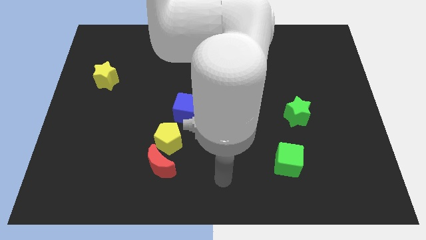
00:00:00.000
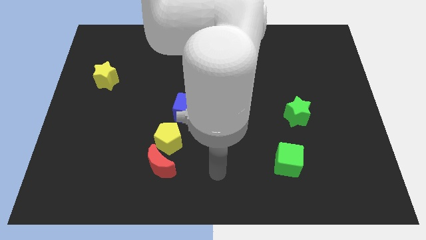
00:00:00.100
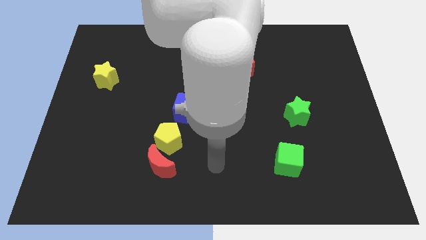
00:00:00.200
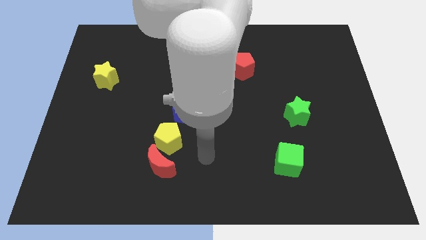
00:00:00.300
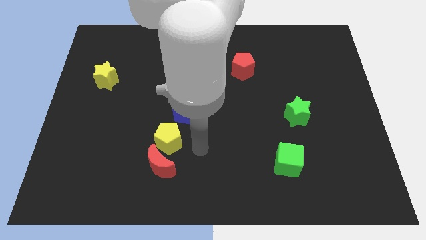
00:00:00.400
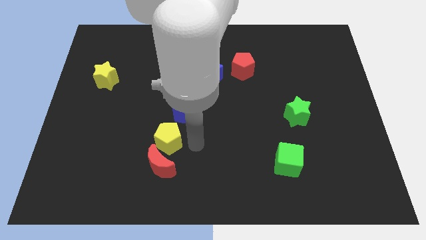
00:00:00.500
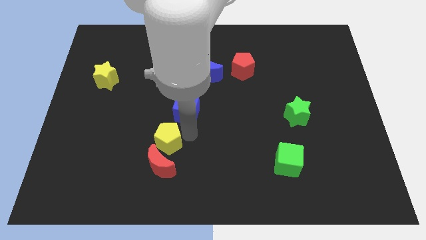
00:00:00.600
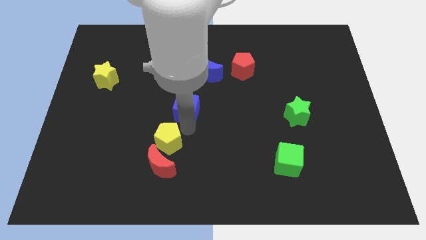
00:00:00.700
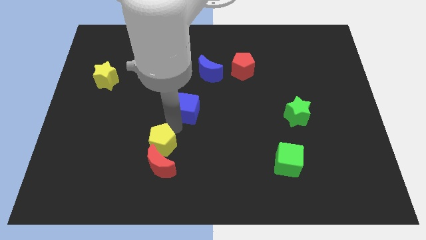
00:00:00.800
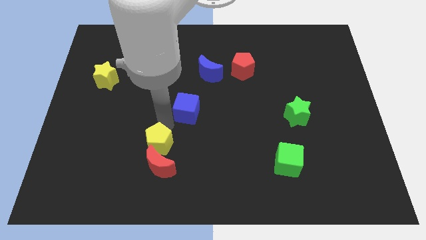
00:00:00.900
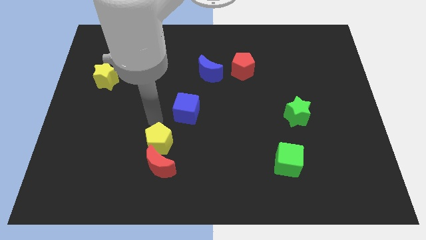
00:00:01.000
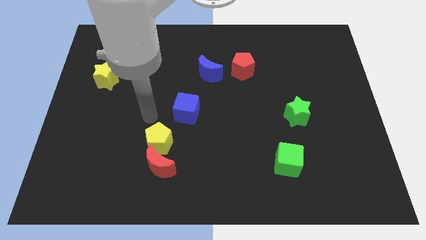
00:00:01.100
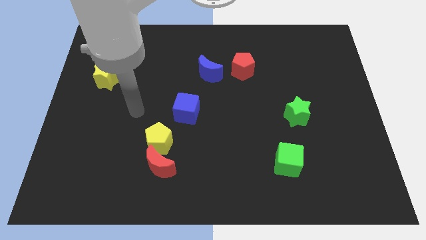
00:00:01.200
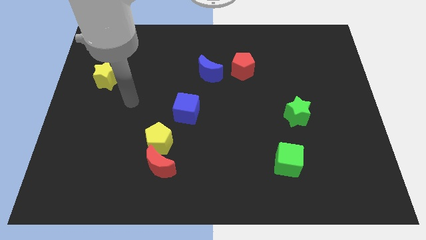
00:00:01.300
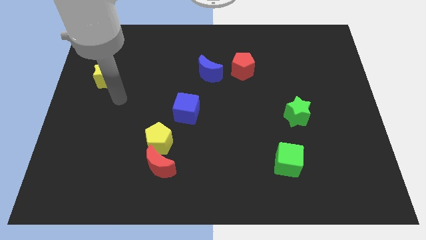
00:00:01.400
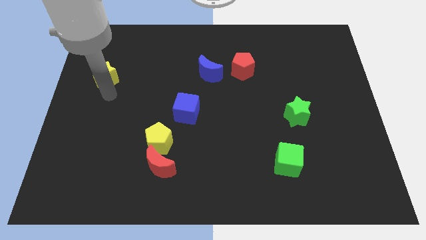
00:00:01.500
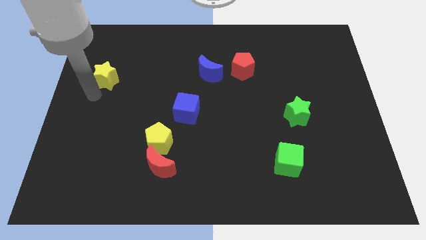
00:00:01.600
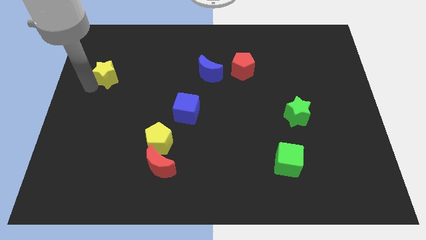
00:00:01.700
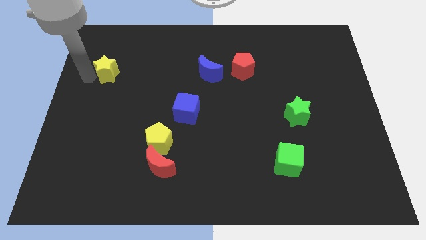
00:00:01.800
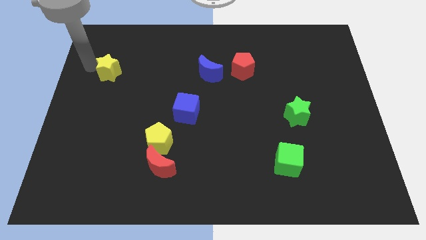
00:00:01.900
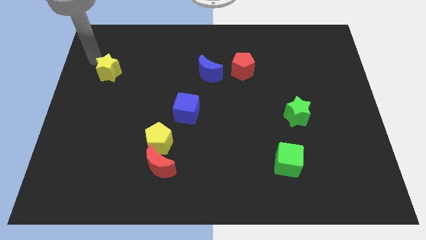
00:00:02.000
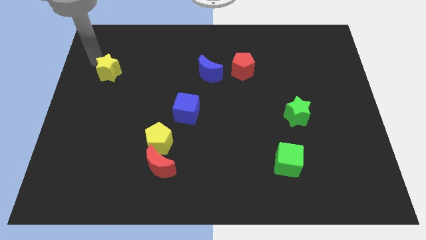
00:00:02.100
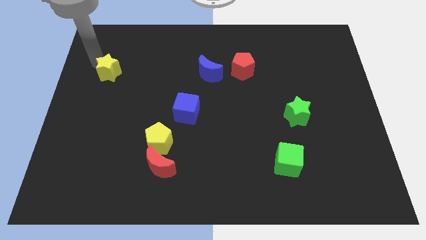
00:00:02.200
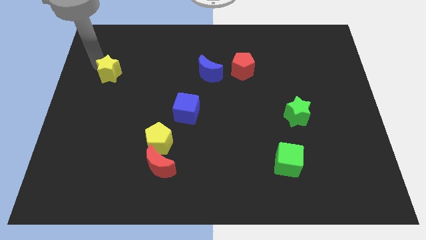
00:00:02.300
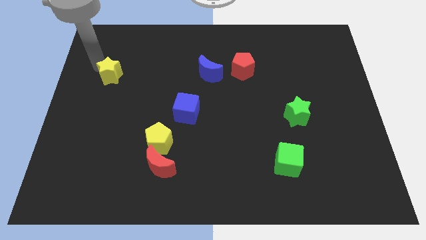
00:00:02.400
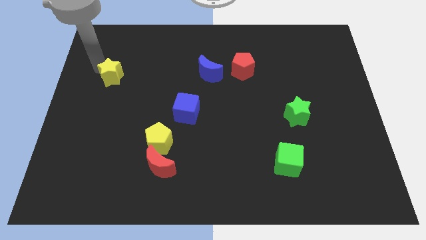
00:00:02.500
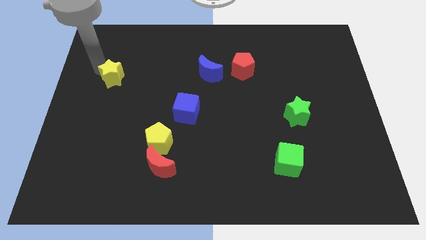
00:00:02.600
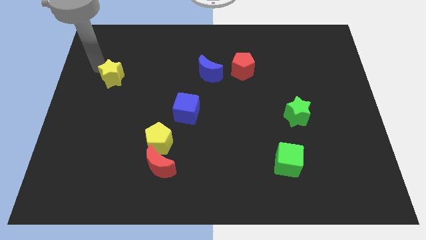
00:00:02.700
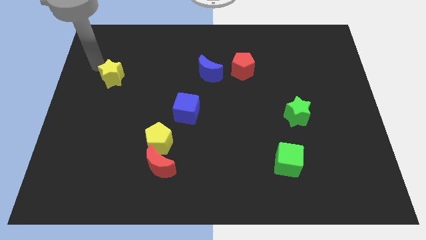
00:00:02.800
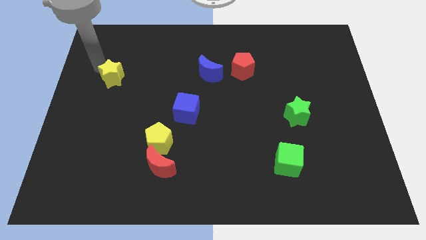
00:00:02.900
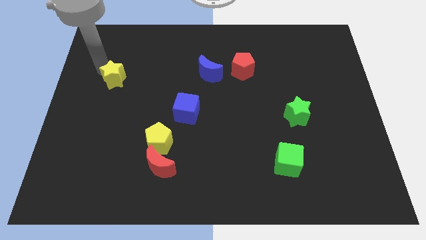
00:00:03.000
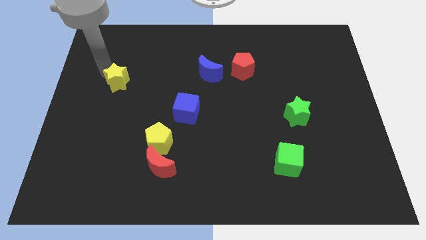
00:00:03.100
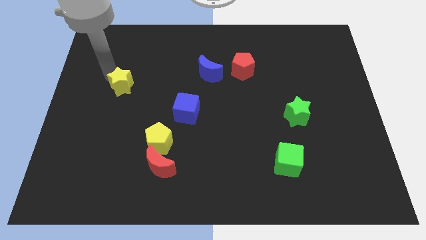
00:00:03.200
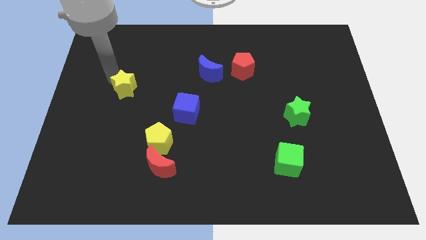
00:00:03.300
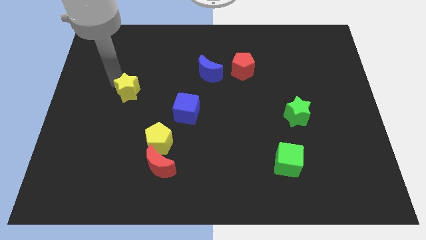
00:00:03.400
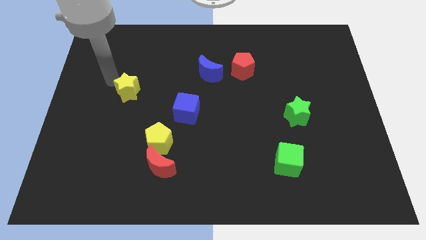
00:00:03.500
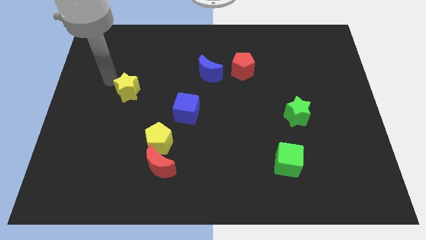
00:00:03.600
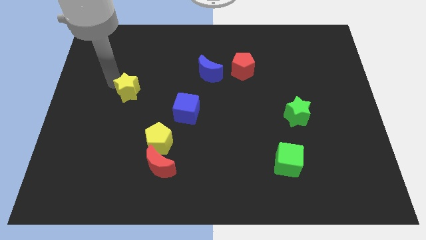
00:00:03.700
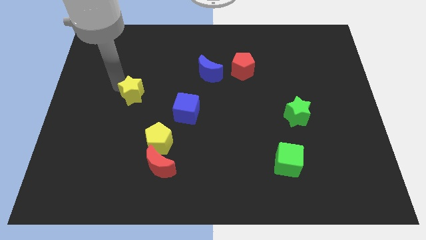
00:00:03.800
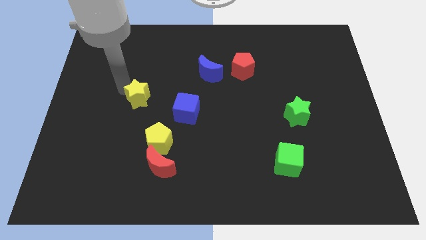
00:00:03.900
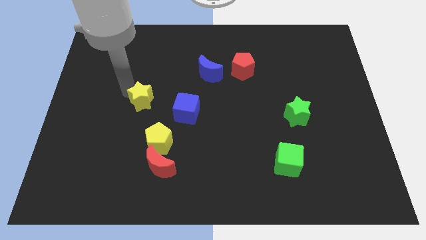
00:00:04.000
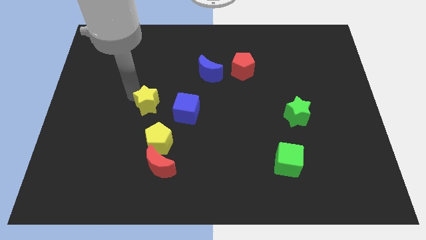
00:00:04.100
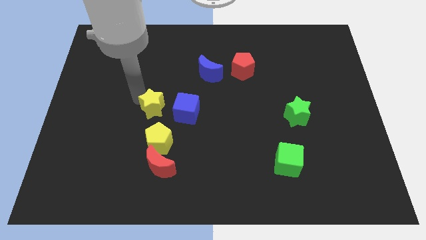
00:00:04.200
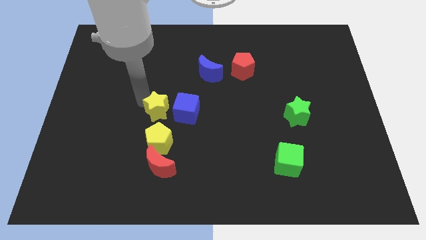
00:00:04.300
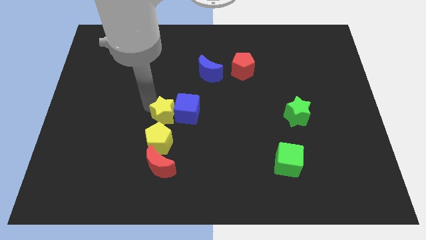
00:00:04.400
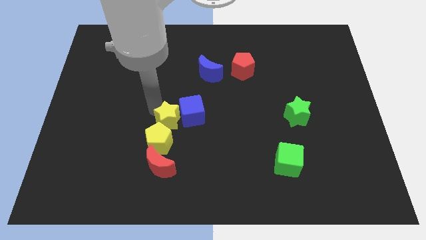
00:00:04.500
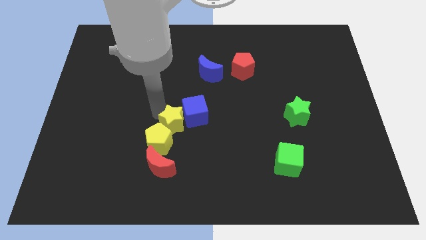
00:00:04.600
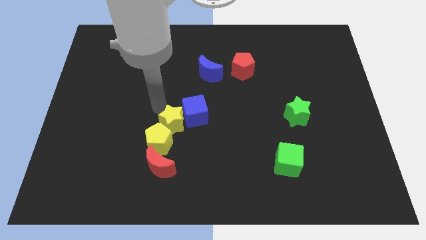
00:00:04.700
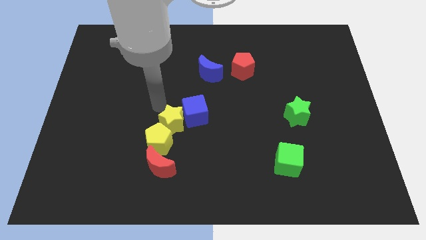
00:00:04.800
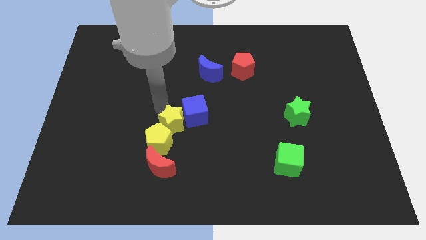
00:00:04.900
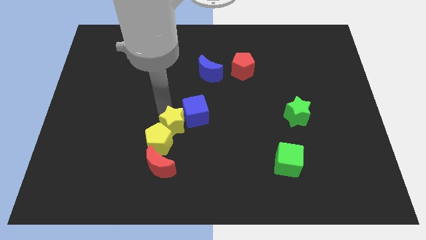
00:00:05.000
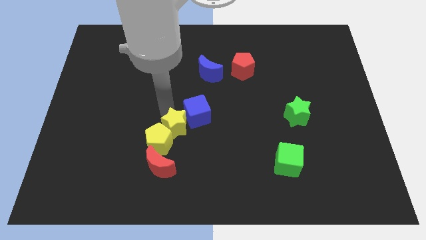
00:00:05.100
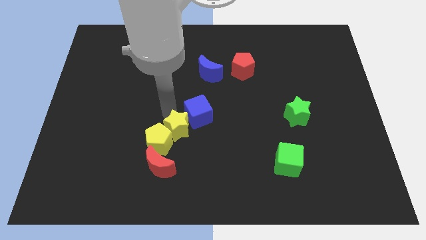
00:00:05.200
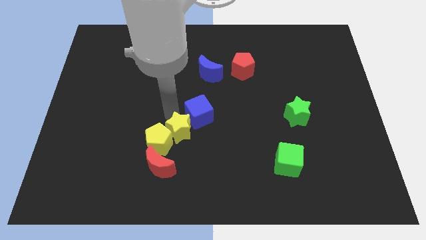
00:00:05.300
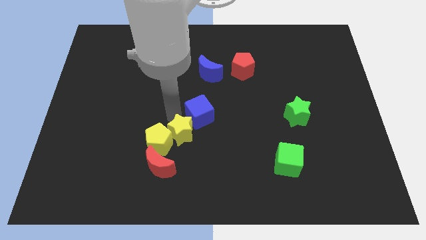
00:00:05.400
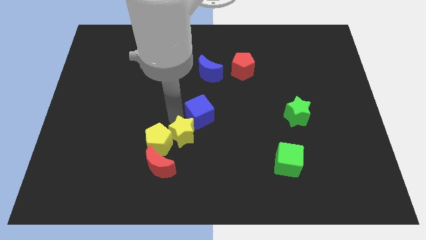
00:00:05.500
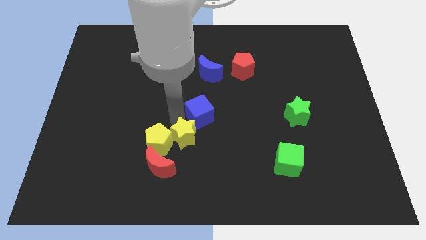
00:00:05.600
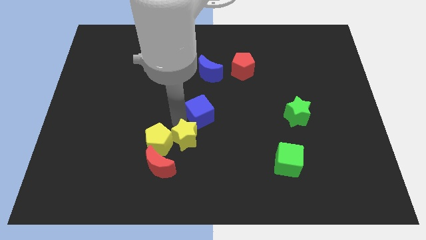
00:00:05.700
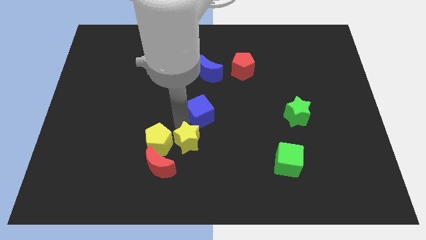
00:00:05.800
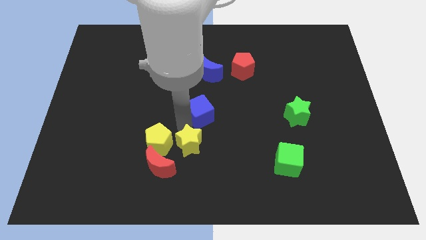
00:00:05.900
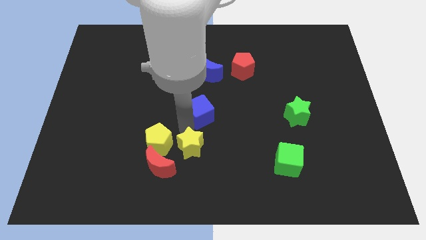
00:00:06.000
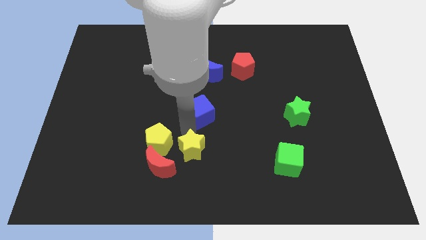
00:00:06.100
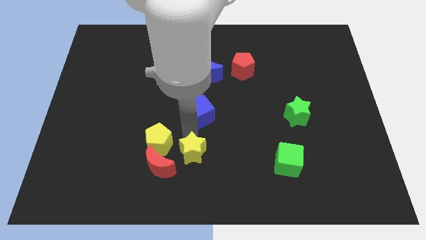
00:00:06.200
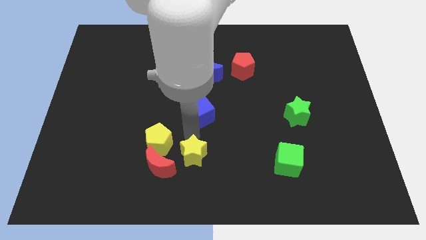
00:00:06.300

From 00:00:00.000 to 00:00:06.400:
move the yellow star to the bottom side
